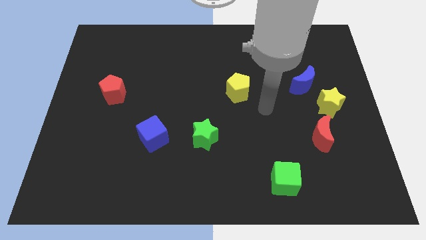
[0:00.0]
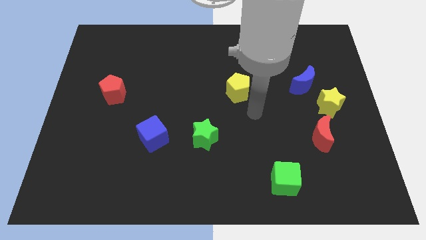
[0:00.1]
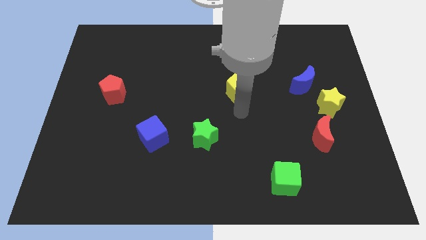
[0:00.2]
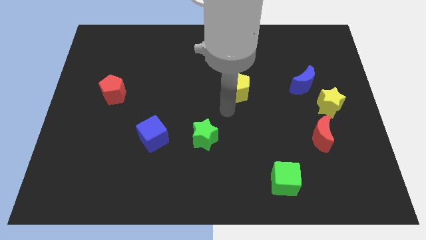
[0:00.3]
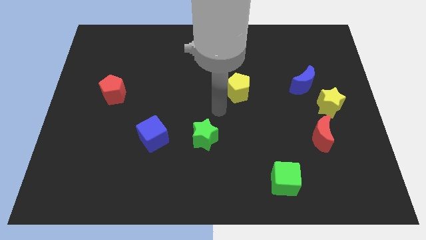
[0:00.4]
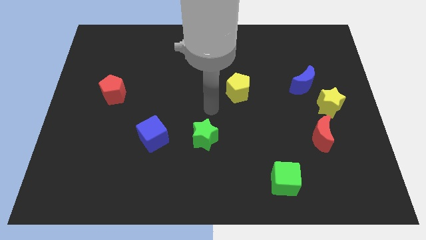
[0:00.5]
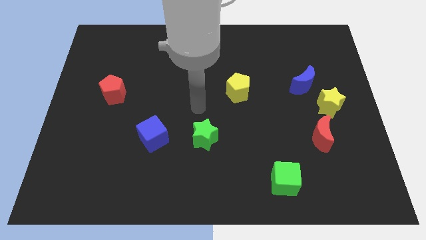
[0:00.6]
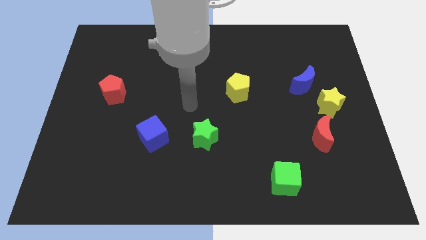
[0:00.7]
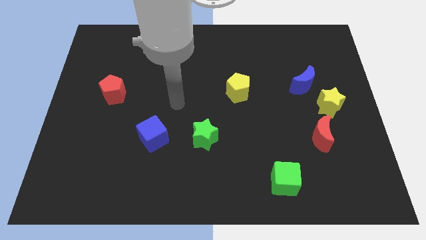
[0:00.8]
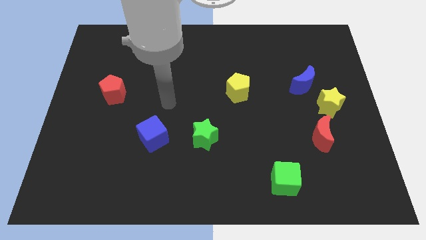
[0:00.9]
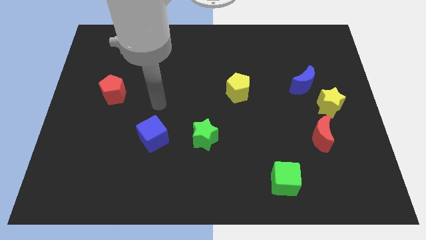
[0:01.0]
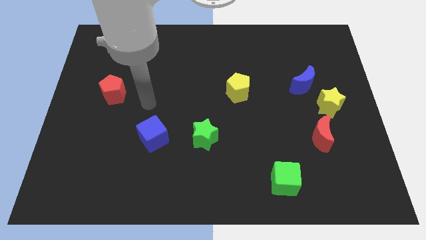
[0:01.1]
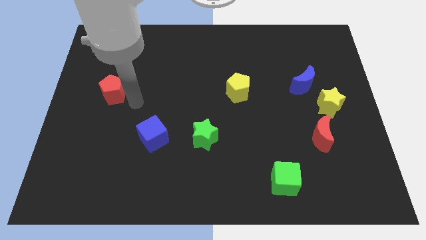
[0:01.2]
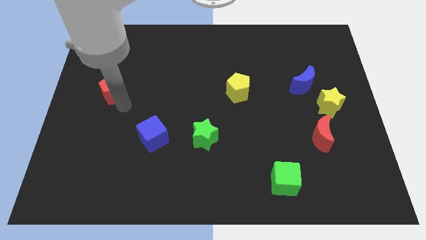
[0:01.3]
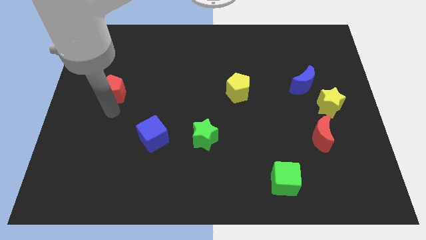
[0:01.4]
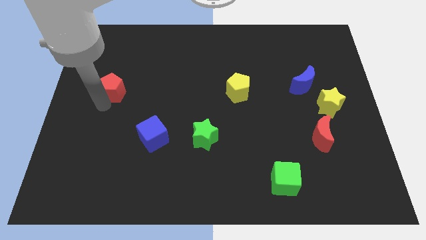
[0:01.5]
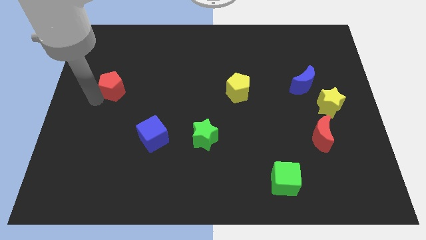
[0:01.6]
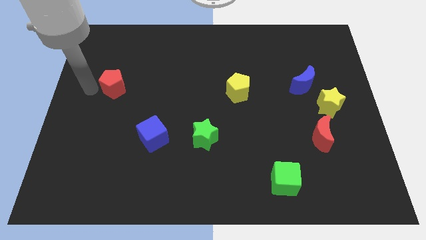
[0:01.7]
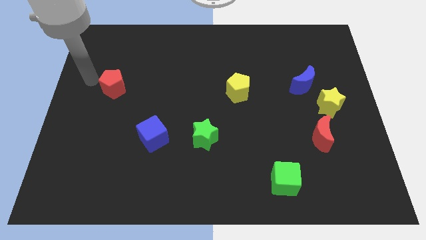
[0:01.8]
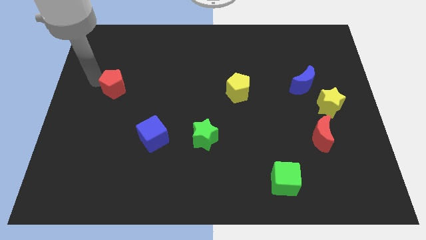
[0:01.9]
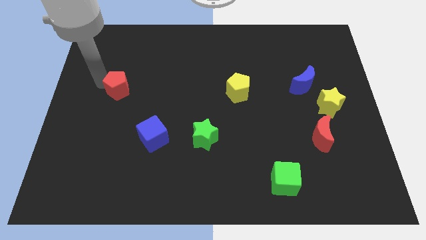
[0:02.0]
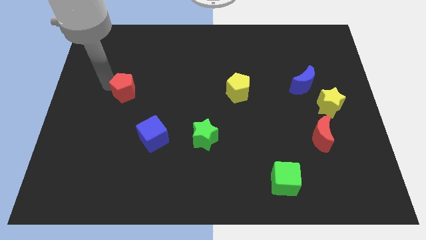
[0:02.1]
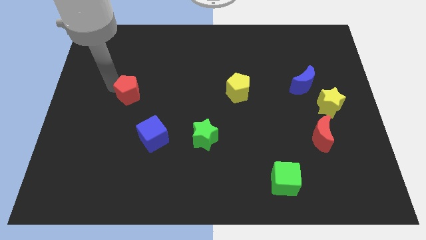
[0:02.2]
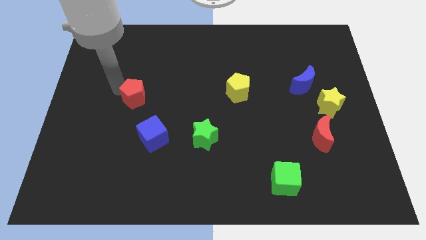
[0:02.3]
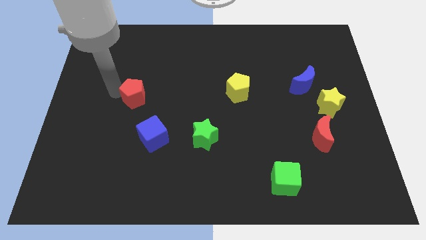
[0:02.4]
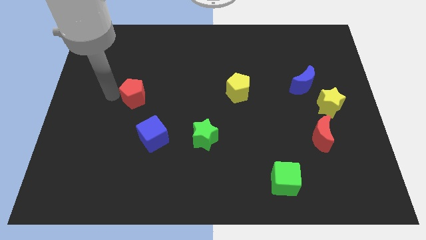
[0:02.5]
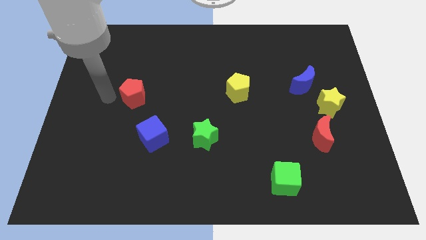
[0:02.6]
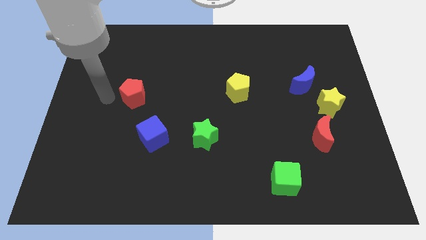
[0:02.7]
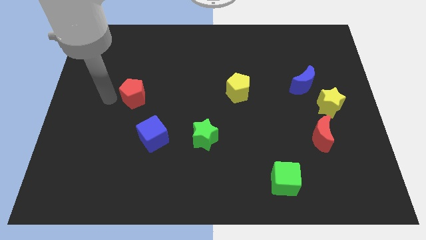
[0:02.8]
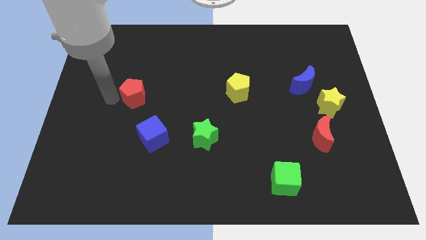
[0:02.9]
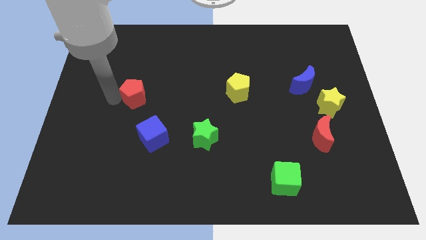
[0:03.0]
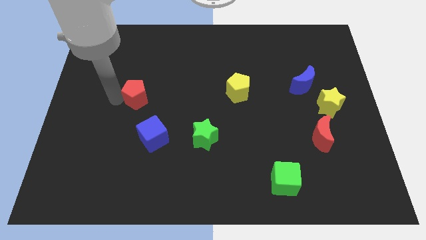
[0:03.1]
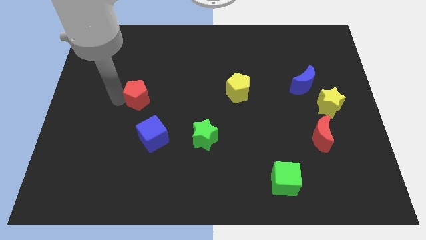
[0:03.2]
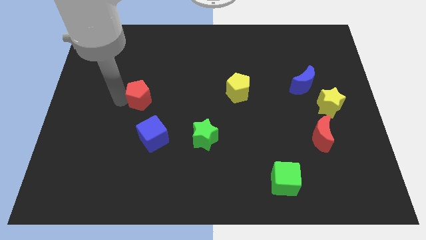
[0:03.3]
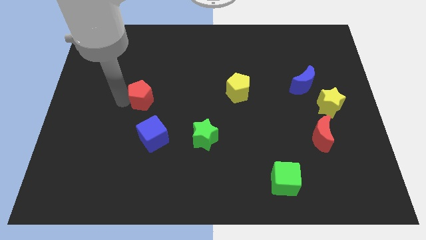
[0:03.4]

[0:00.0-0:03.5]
push the red pentagon right a little

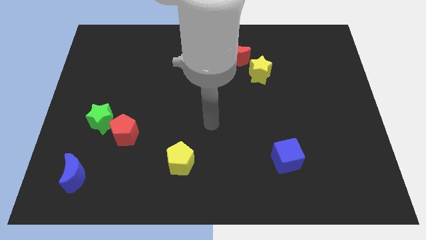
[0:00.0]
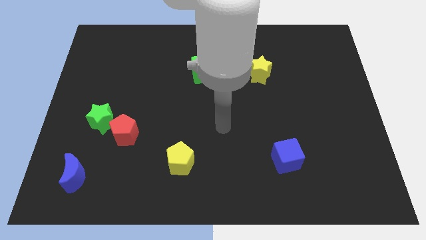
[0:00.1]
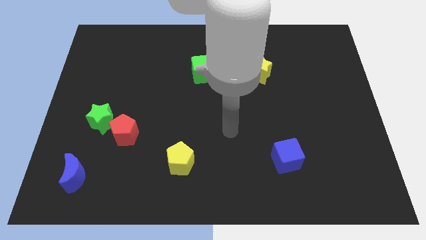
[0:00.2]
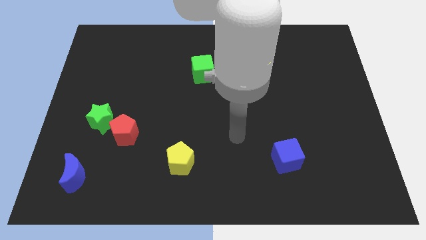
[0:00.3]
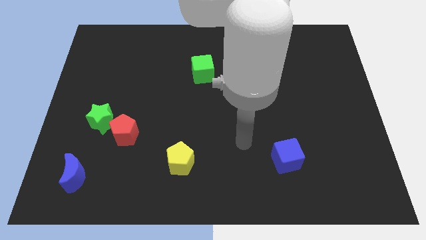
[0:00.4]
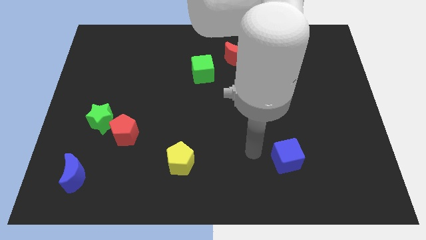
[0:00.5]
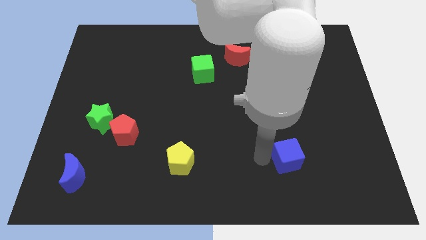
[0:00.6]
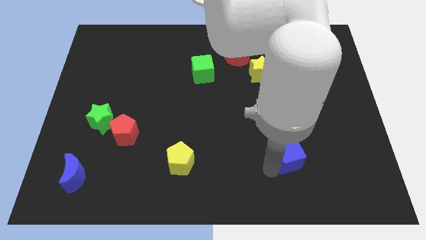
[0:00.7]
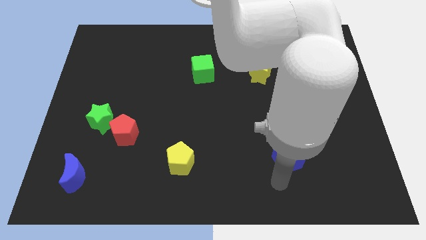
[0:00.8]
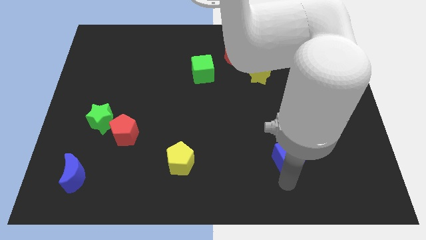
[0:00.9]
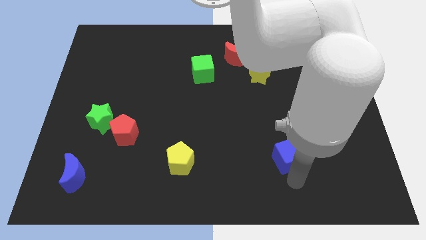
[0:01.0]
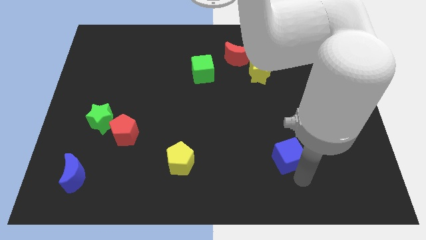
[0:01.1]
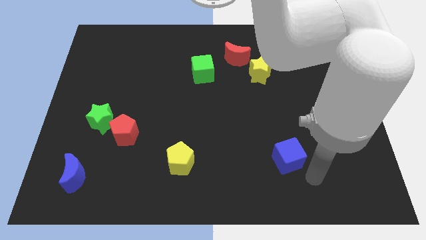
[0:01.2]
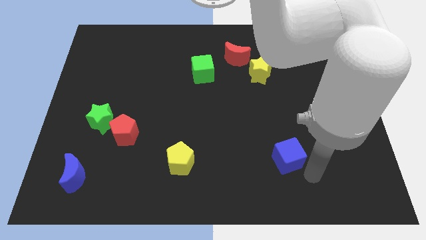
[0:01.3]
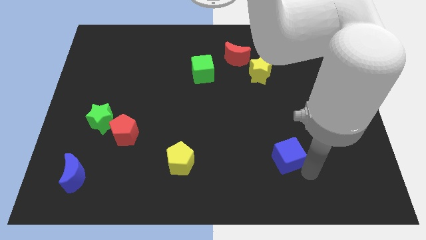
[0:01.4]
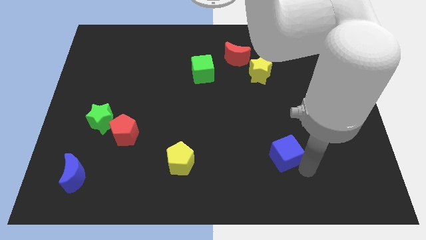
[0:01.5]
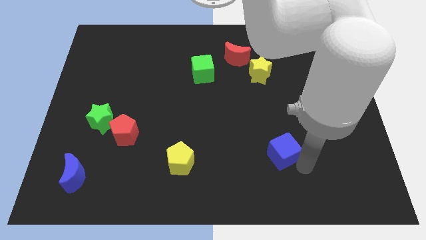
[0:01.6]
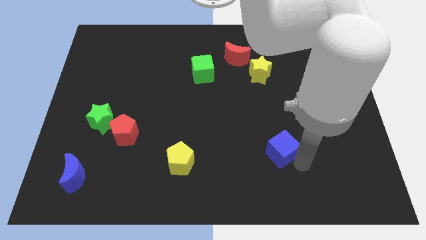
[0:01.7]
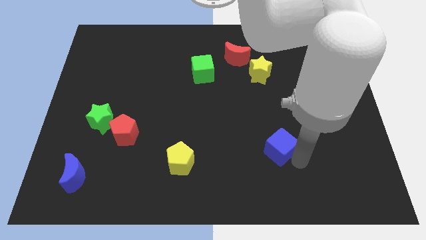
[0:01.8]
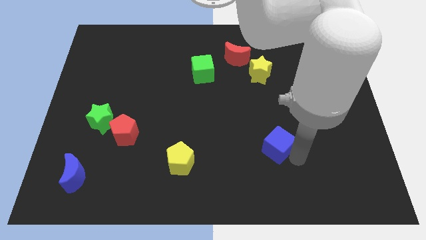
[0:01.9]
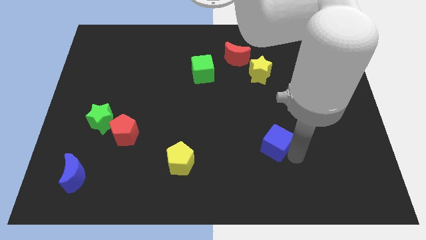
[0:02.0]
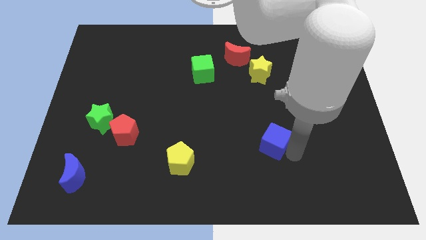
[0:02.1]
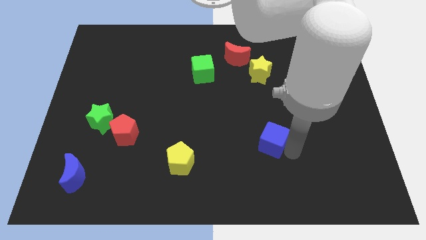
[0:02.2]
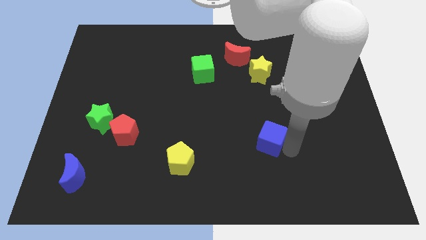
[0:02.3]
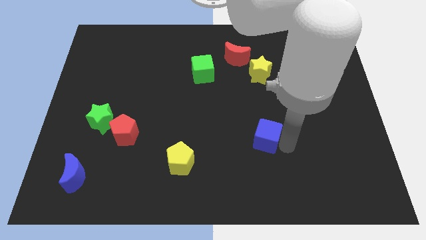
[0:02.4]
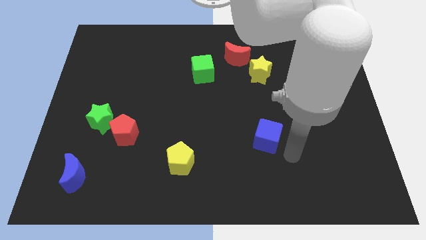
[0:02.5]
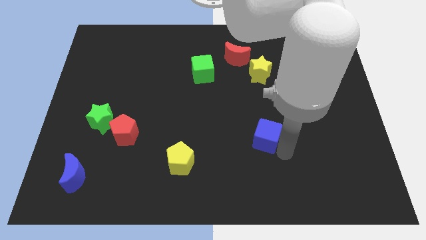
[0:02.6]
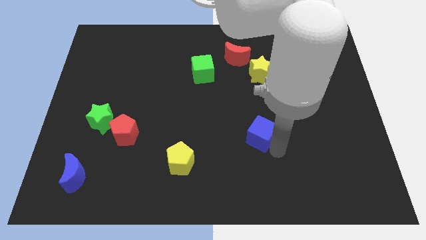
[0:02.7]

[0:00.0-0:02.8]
push the blue cube a little bit diagonally up and to the left

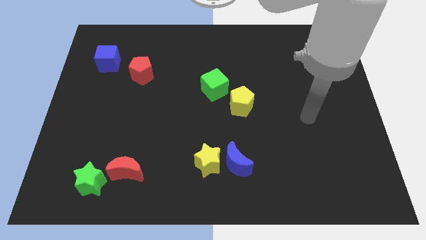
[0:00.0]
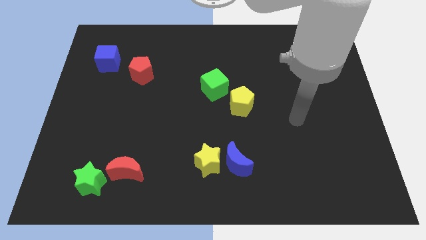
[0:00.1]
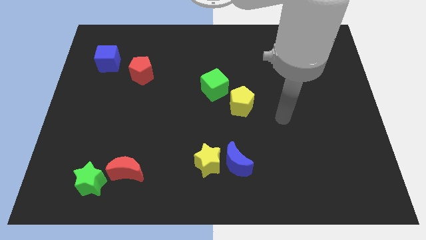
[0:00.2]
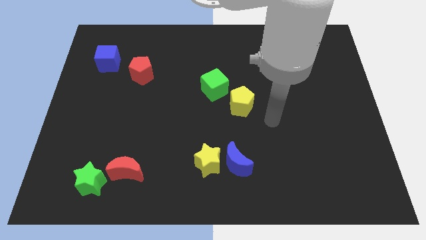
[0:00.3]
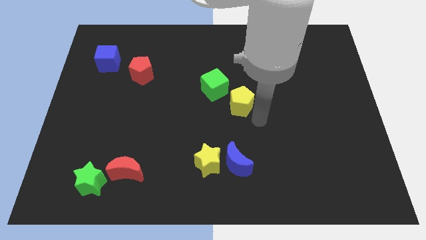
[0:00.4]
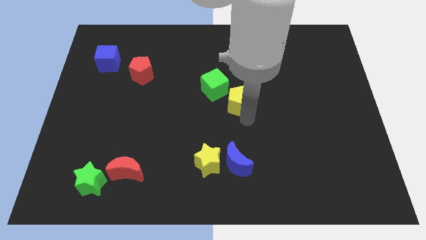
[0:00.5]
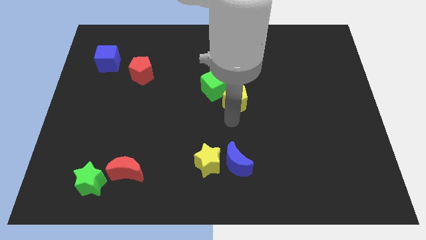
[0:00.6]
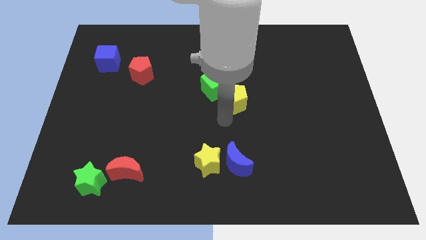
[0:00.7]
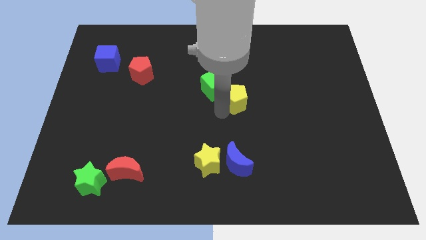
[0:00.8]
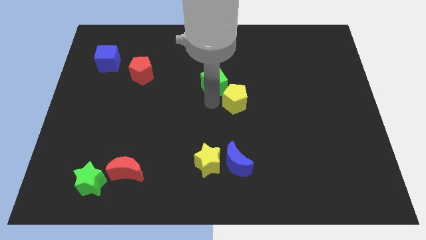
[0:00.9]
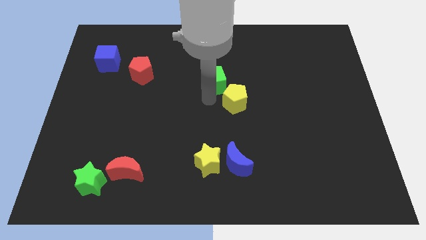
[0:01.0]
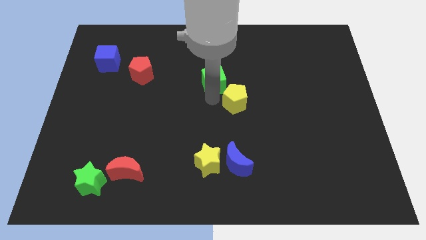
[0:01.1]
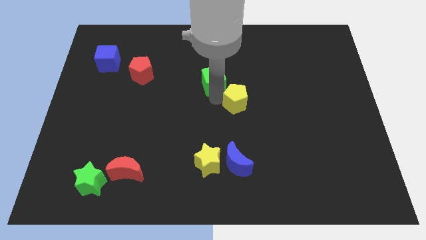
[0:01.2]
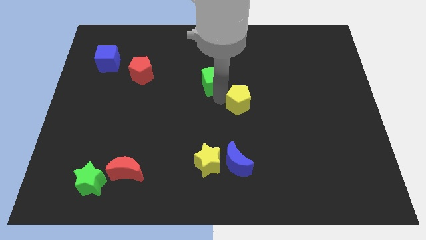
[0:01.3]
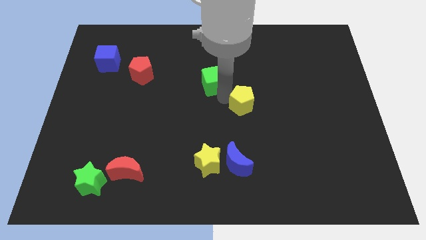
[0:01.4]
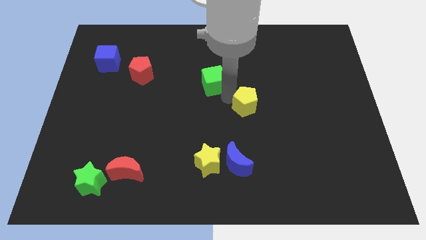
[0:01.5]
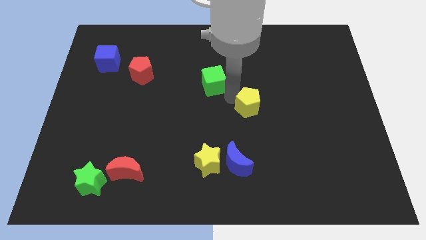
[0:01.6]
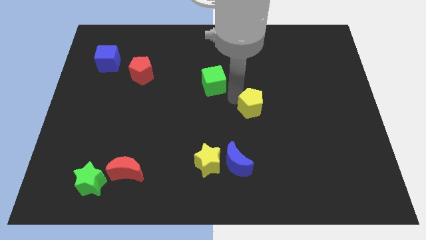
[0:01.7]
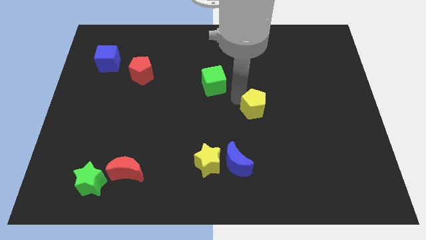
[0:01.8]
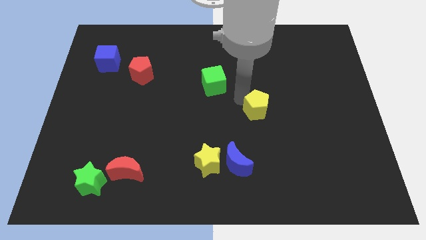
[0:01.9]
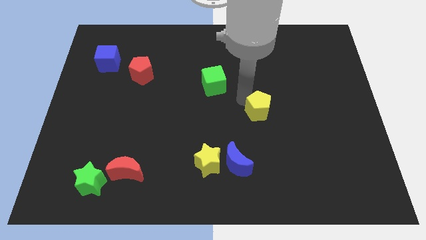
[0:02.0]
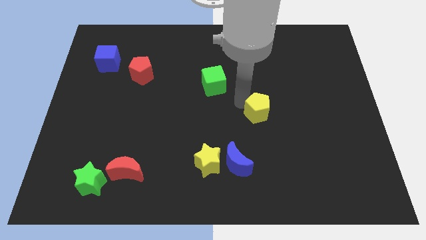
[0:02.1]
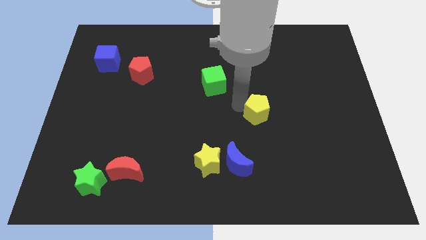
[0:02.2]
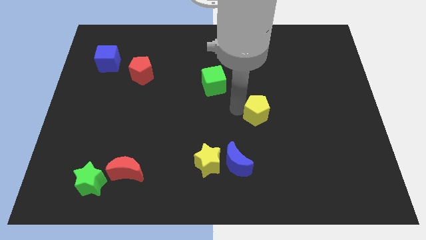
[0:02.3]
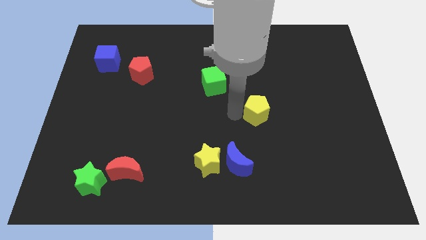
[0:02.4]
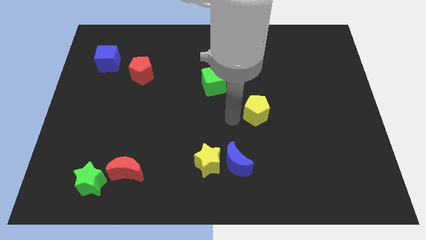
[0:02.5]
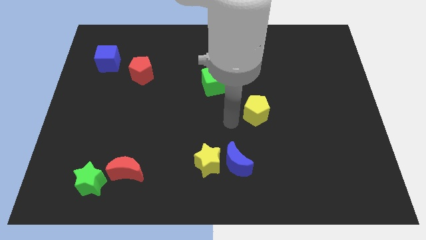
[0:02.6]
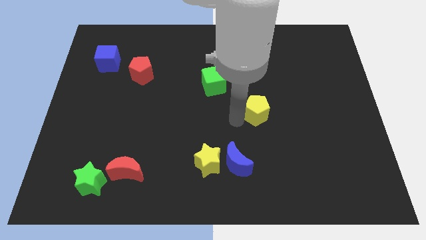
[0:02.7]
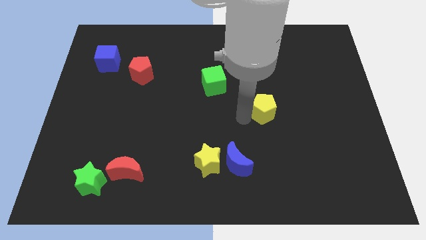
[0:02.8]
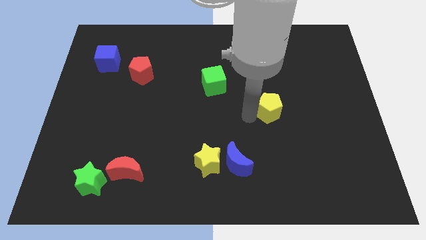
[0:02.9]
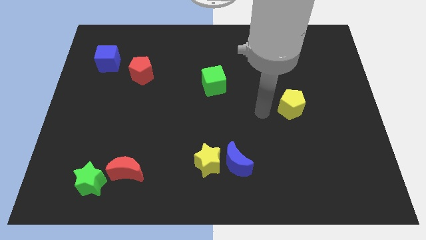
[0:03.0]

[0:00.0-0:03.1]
move the yellow pentagon a little to the right
